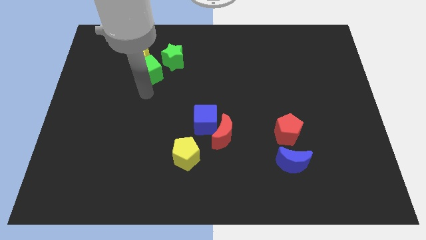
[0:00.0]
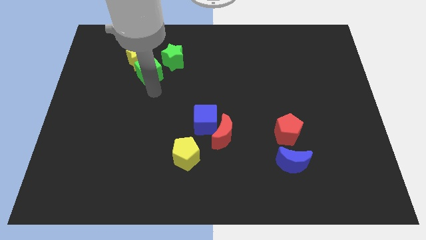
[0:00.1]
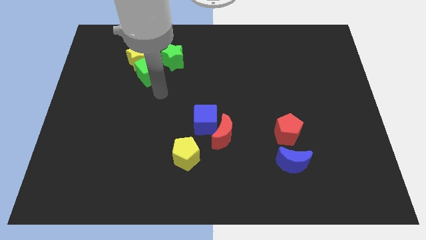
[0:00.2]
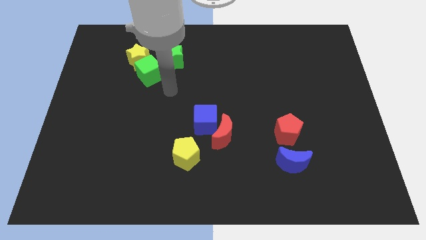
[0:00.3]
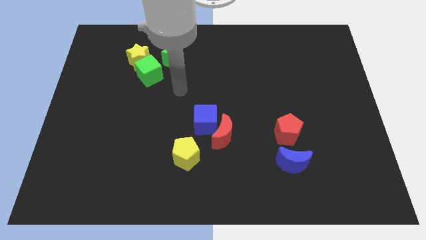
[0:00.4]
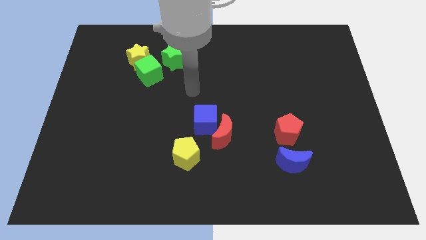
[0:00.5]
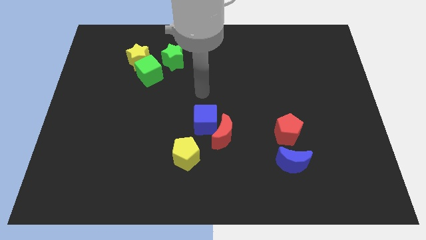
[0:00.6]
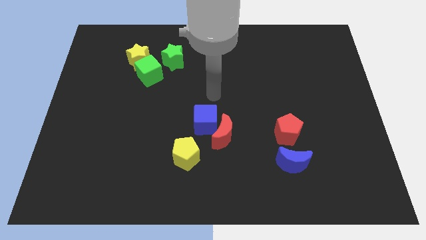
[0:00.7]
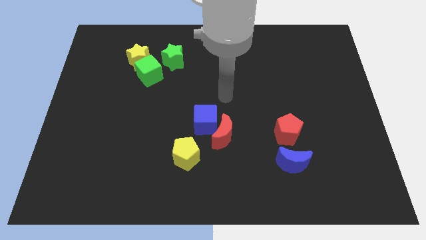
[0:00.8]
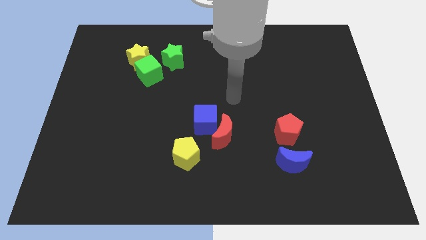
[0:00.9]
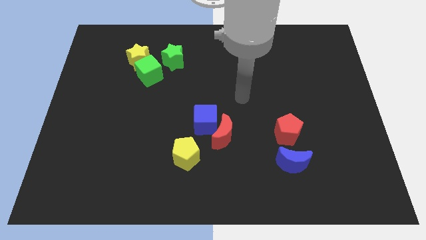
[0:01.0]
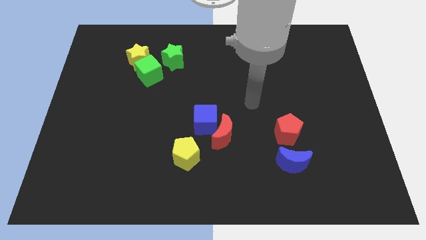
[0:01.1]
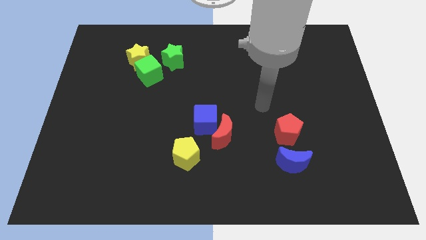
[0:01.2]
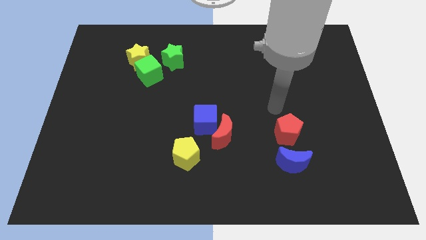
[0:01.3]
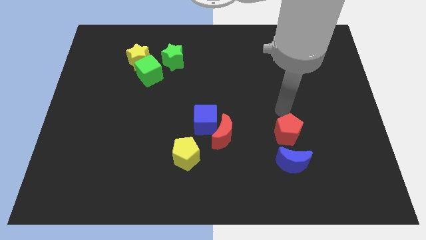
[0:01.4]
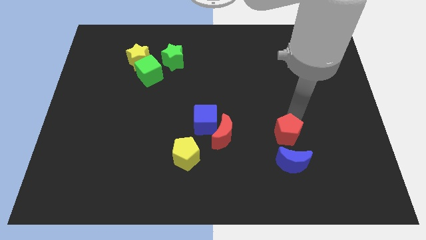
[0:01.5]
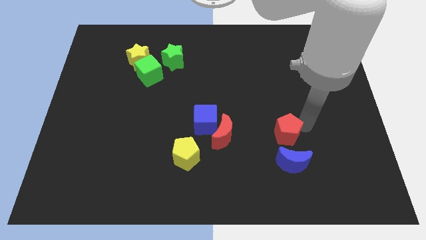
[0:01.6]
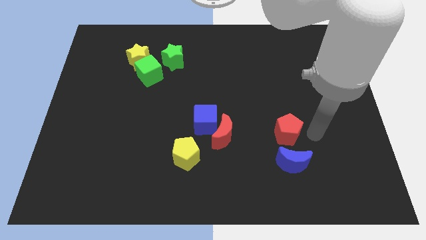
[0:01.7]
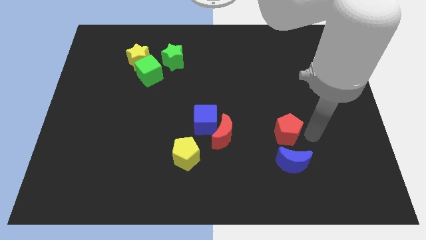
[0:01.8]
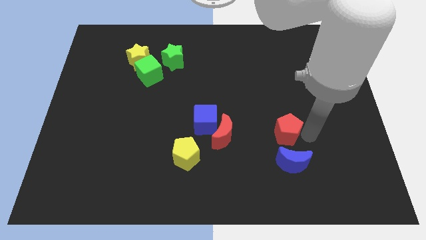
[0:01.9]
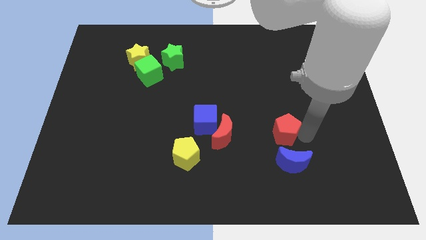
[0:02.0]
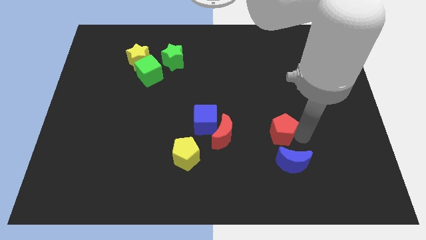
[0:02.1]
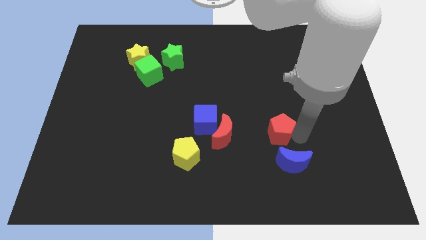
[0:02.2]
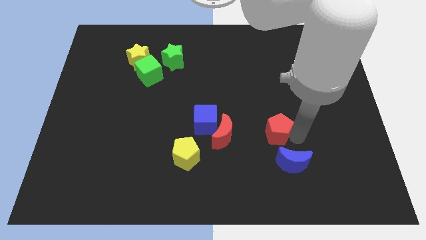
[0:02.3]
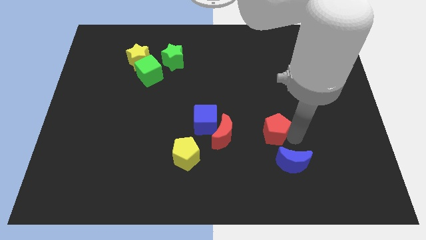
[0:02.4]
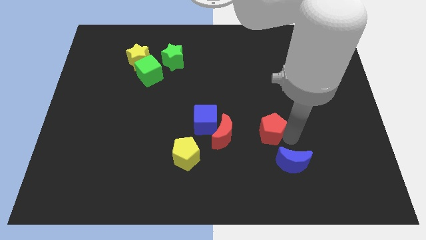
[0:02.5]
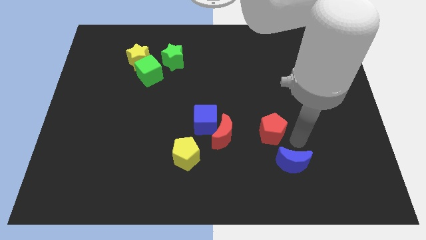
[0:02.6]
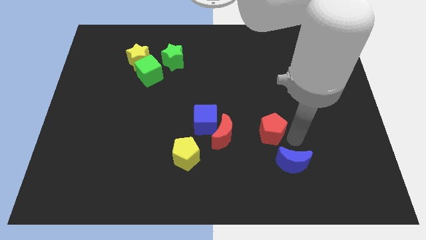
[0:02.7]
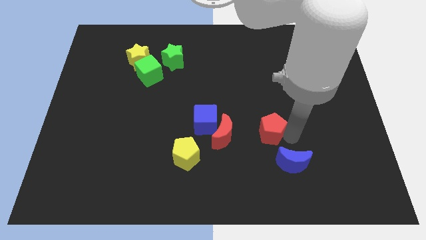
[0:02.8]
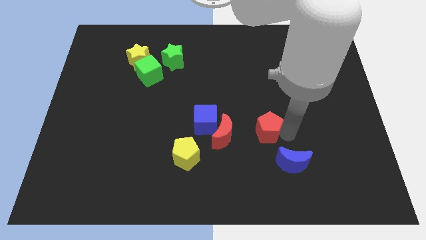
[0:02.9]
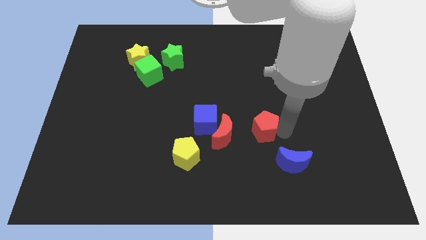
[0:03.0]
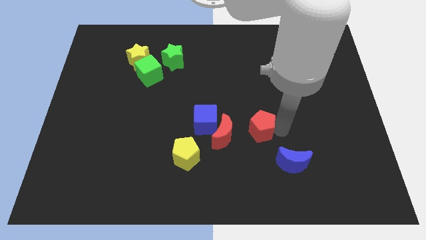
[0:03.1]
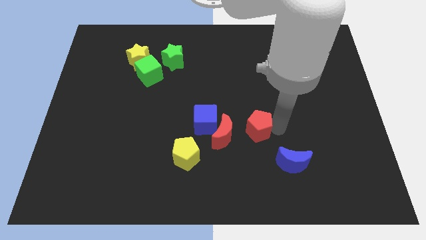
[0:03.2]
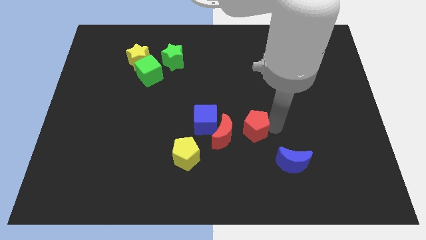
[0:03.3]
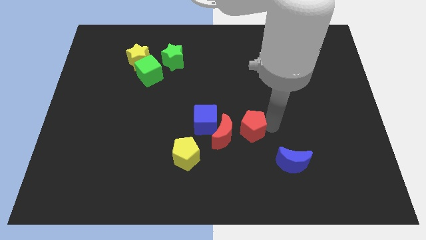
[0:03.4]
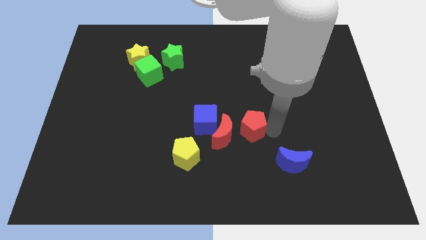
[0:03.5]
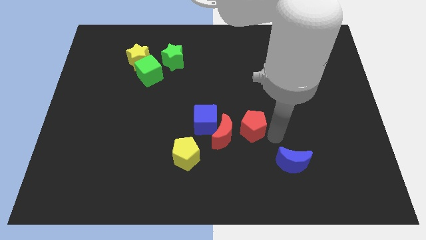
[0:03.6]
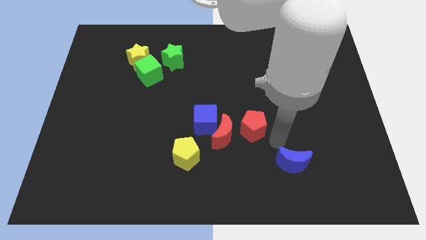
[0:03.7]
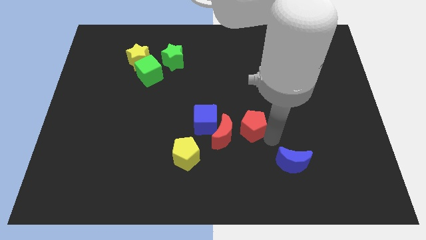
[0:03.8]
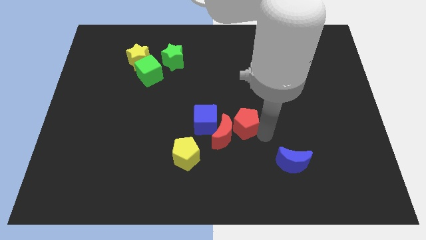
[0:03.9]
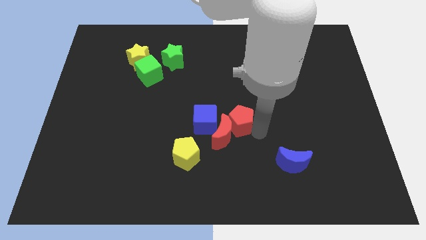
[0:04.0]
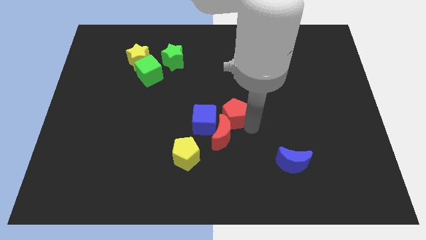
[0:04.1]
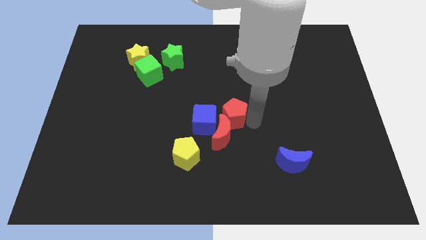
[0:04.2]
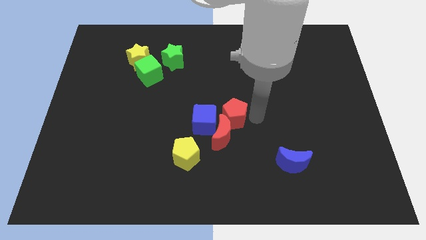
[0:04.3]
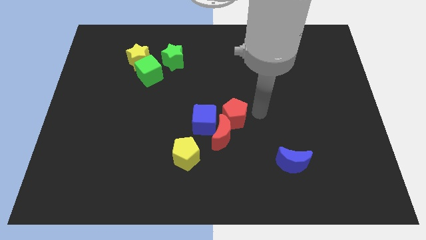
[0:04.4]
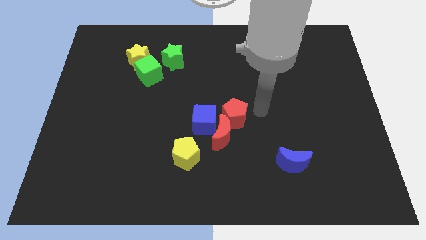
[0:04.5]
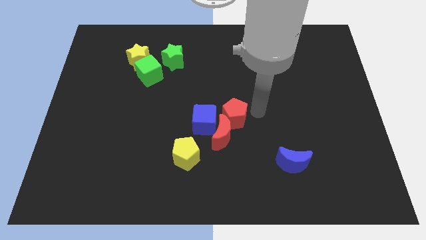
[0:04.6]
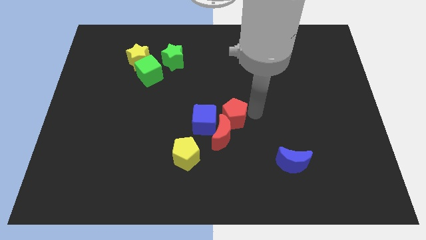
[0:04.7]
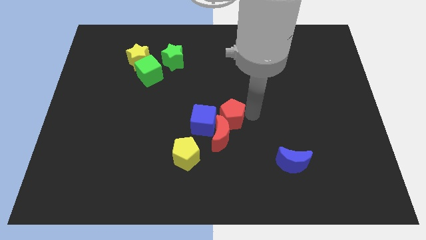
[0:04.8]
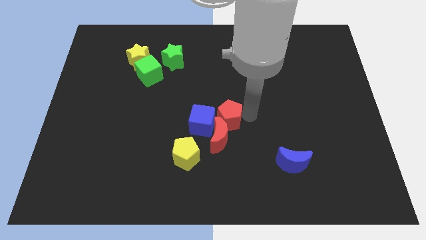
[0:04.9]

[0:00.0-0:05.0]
put the red pentagon close to the blue cube

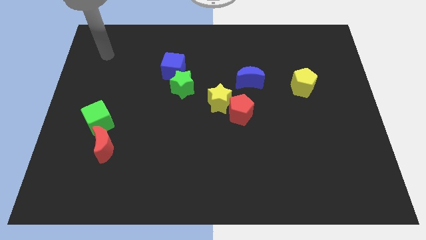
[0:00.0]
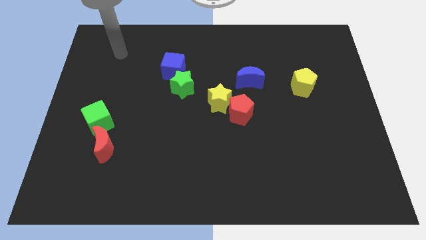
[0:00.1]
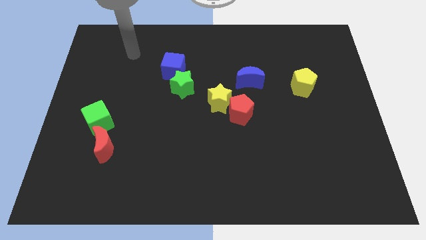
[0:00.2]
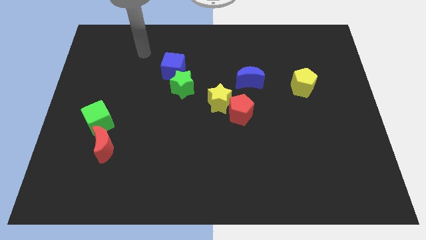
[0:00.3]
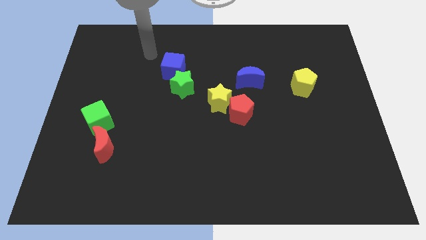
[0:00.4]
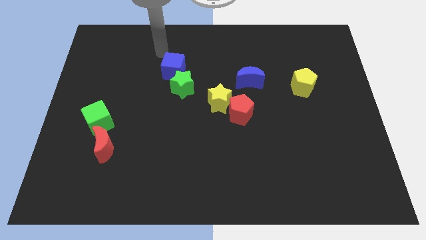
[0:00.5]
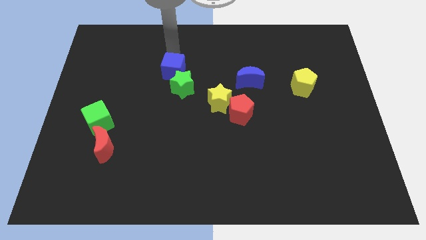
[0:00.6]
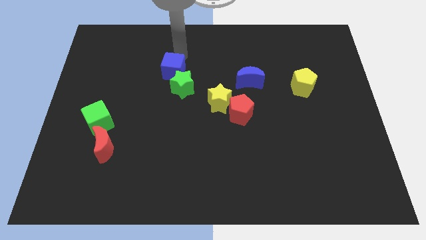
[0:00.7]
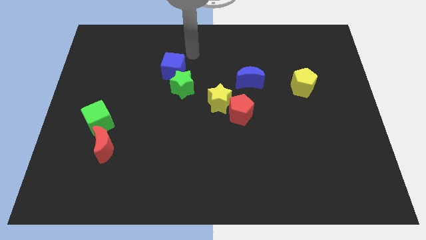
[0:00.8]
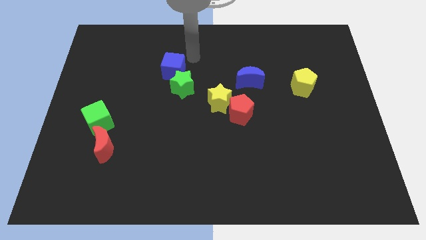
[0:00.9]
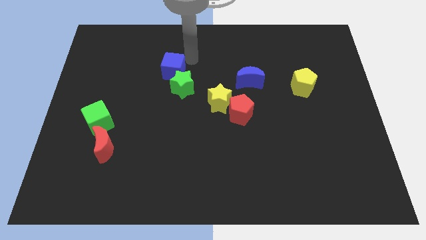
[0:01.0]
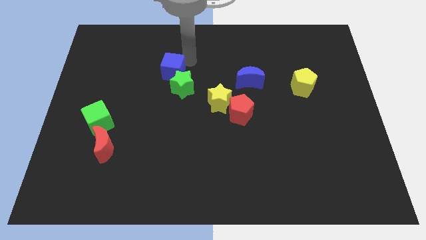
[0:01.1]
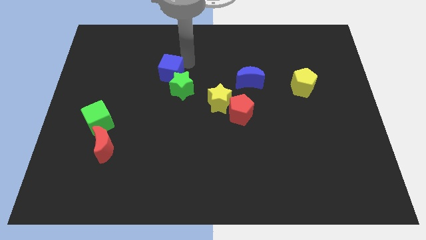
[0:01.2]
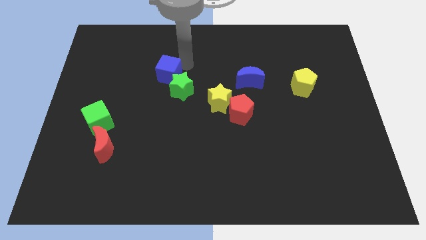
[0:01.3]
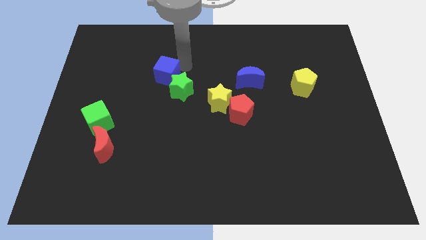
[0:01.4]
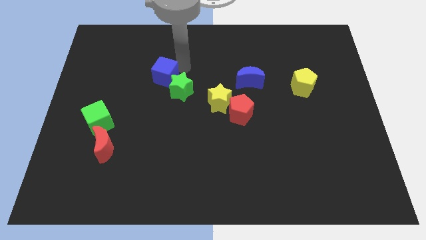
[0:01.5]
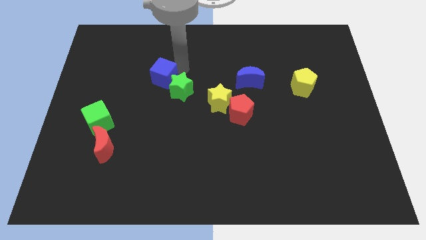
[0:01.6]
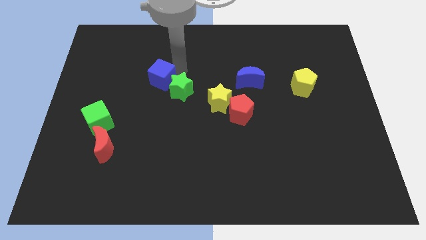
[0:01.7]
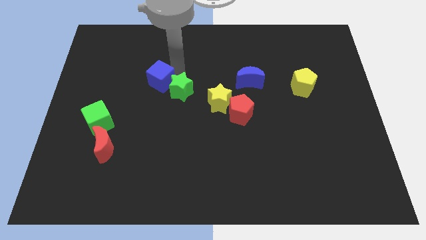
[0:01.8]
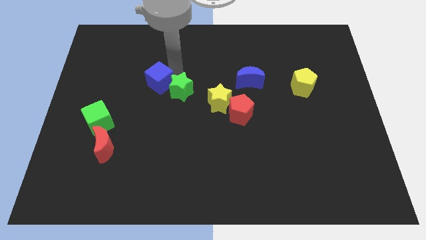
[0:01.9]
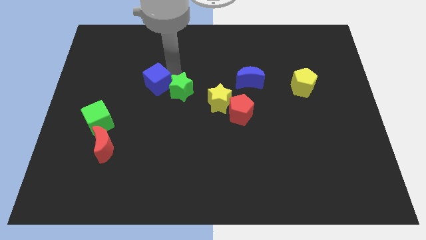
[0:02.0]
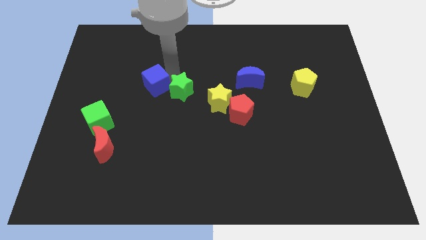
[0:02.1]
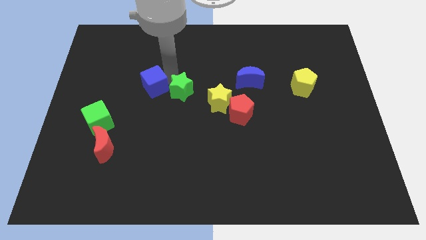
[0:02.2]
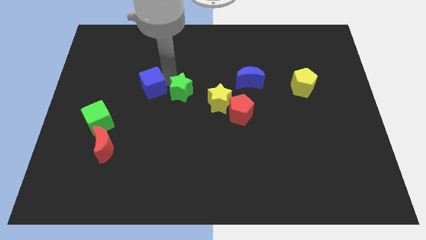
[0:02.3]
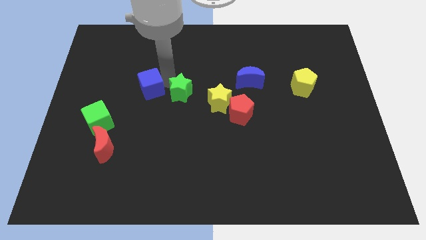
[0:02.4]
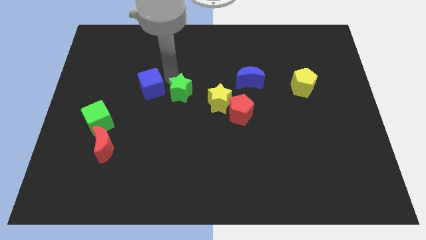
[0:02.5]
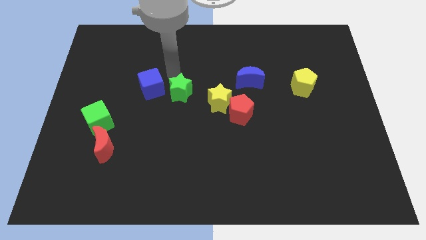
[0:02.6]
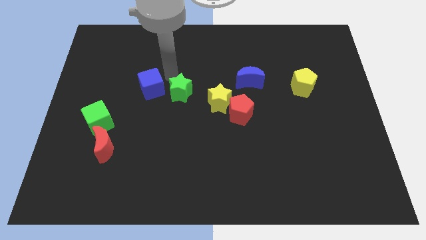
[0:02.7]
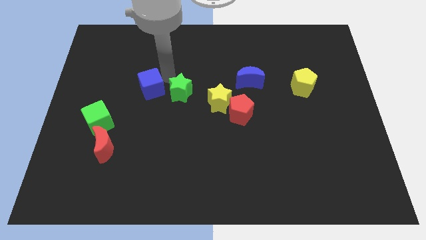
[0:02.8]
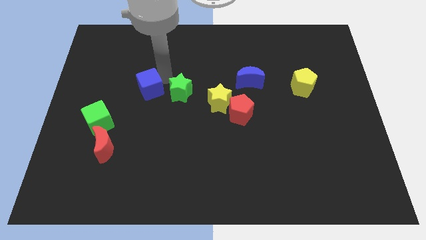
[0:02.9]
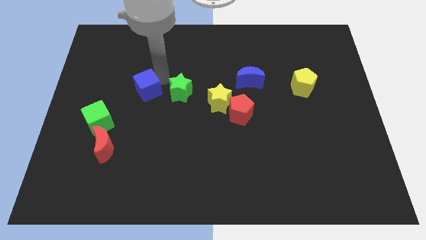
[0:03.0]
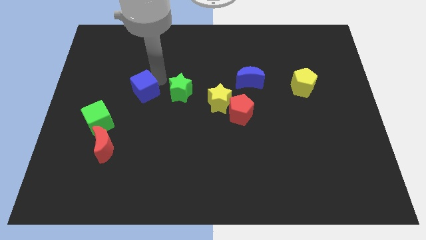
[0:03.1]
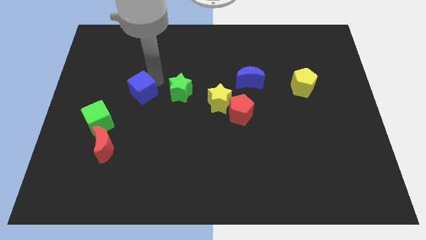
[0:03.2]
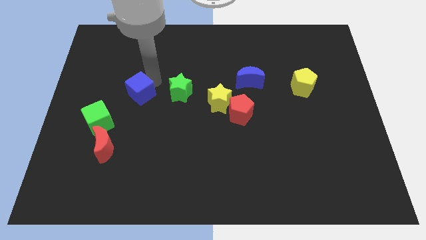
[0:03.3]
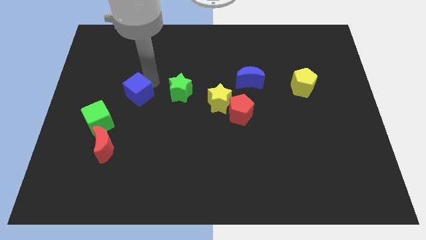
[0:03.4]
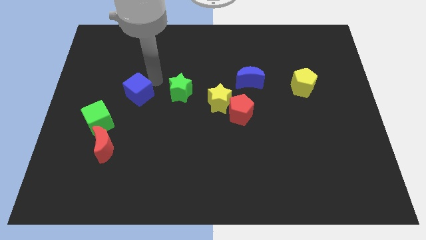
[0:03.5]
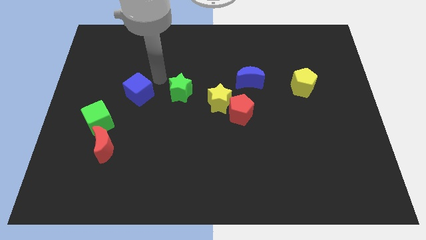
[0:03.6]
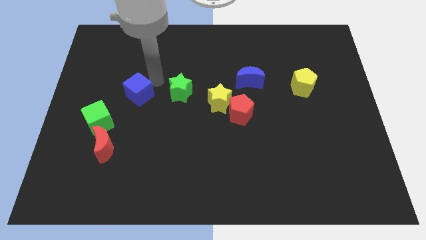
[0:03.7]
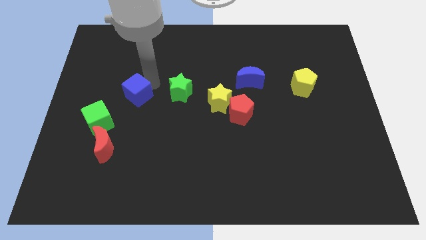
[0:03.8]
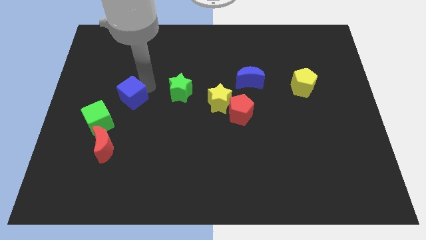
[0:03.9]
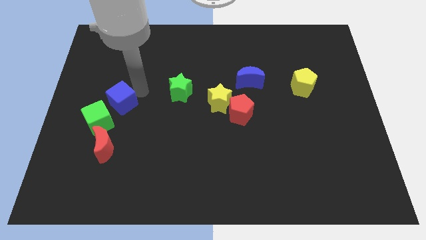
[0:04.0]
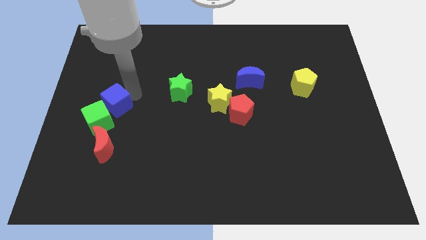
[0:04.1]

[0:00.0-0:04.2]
move the blue cube towards the green cube
